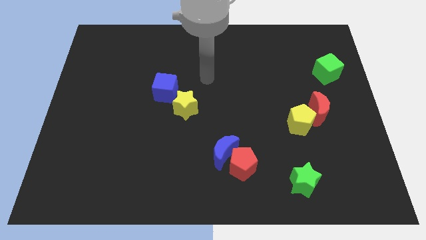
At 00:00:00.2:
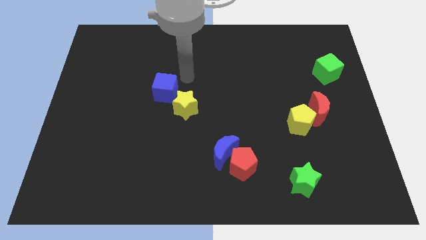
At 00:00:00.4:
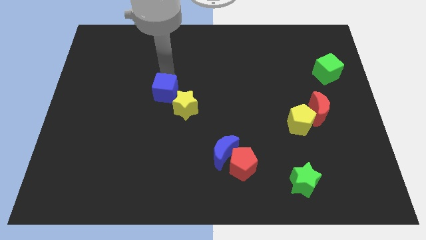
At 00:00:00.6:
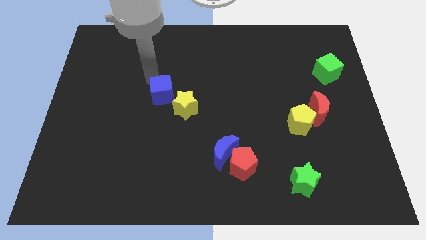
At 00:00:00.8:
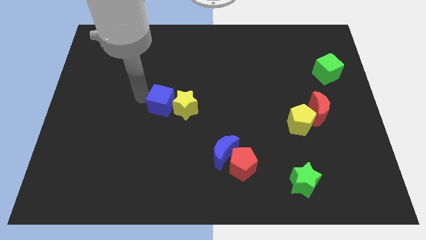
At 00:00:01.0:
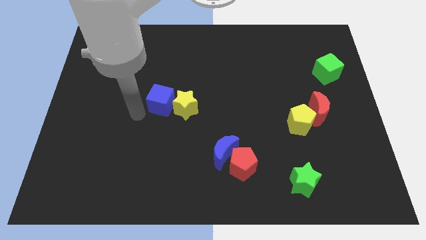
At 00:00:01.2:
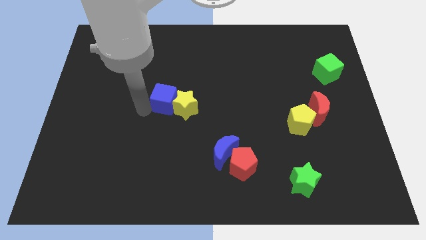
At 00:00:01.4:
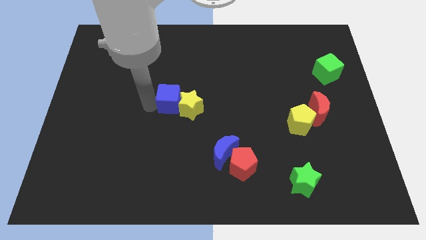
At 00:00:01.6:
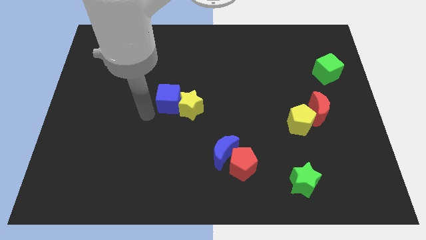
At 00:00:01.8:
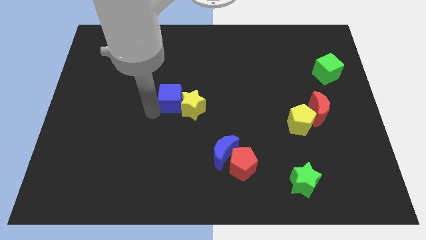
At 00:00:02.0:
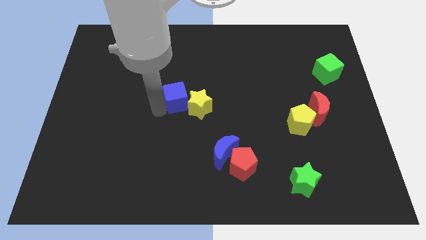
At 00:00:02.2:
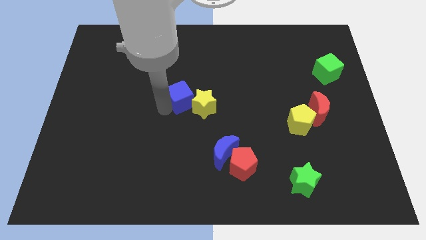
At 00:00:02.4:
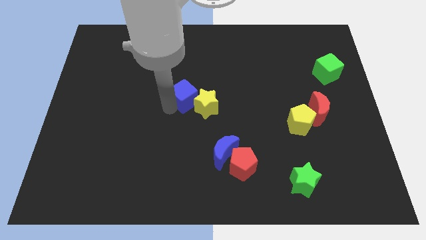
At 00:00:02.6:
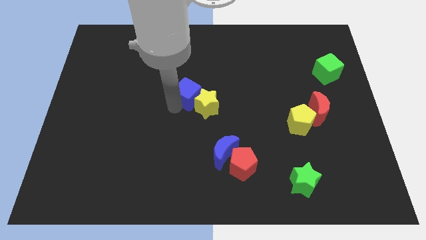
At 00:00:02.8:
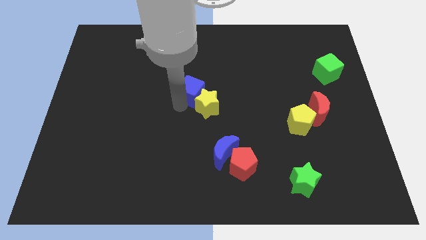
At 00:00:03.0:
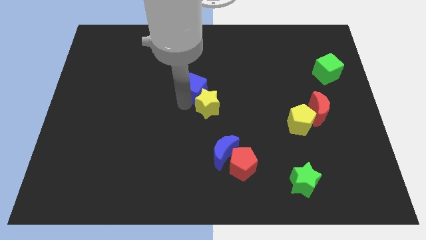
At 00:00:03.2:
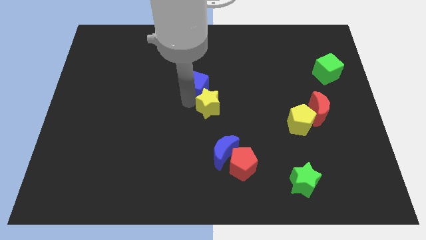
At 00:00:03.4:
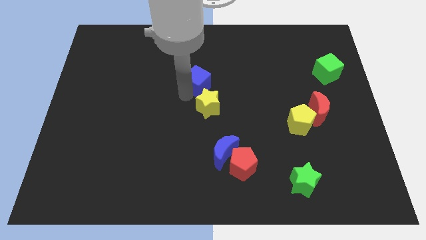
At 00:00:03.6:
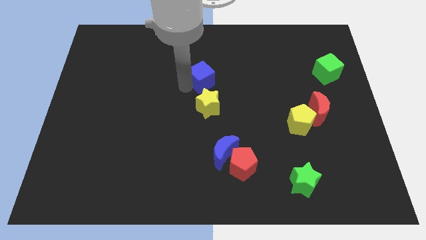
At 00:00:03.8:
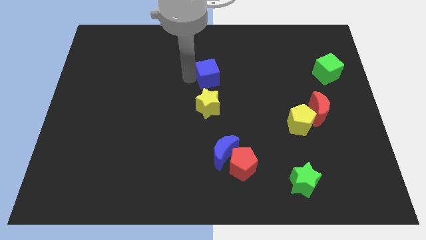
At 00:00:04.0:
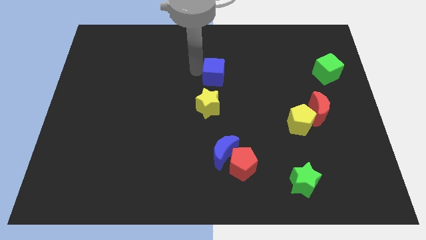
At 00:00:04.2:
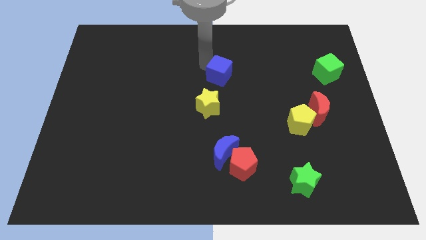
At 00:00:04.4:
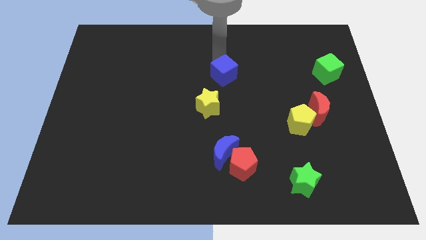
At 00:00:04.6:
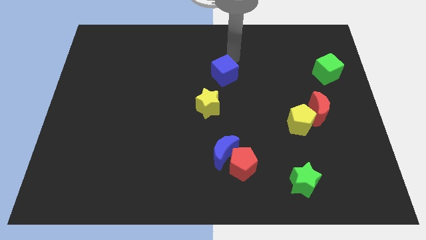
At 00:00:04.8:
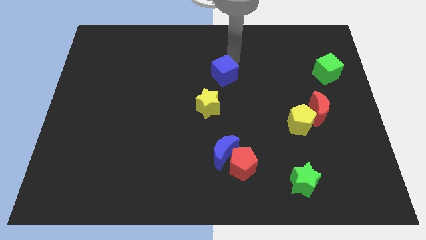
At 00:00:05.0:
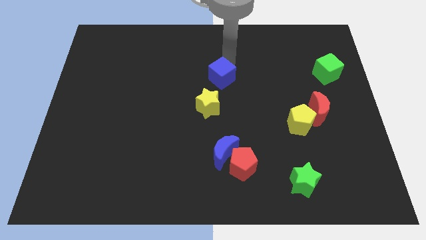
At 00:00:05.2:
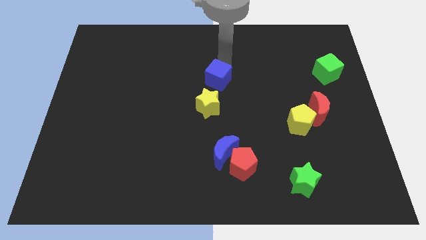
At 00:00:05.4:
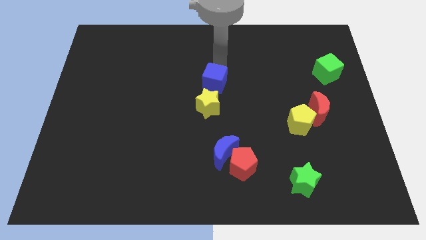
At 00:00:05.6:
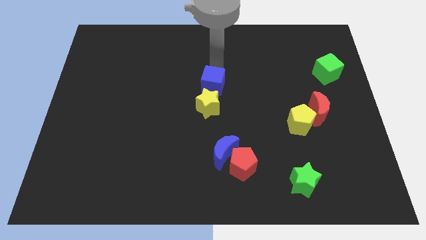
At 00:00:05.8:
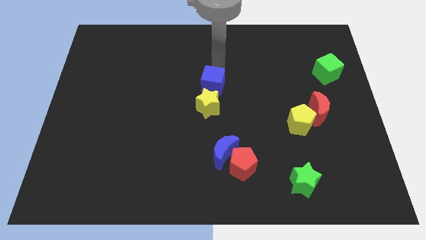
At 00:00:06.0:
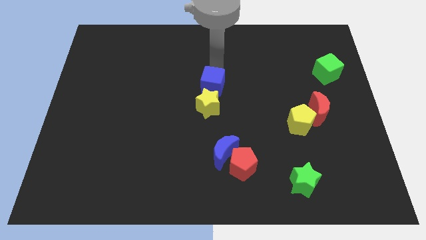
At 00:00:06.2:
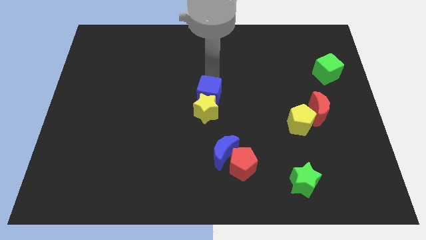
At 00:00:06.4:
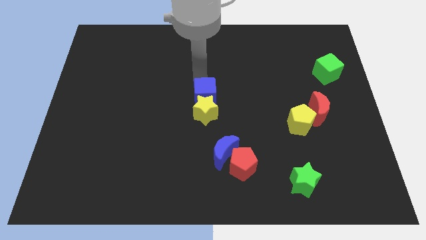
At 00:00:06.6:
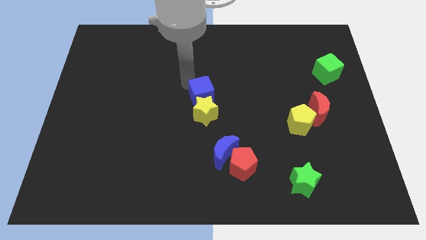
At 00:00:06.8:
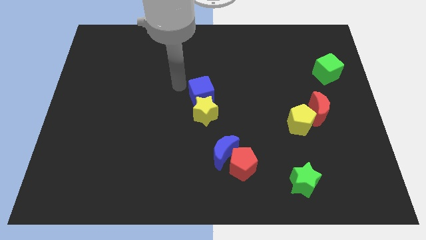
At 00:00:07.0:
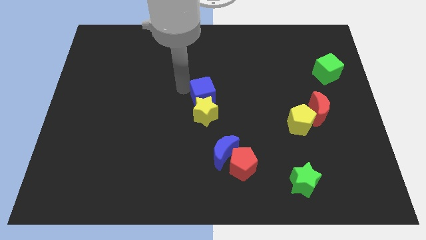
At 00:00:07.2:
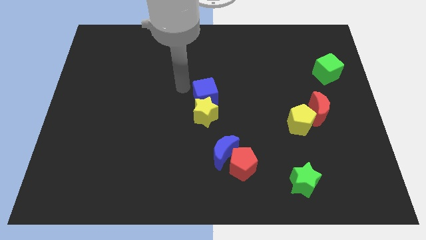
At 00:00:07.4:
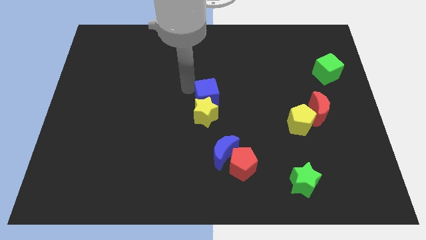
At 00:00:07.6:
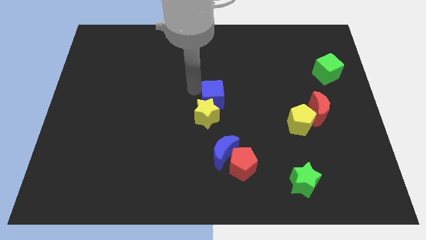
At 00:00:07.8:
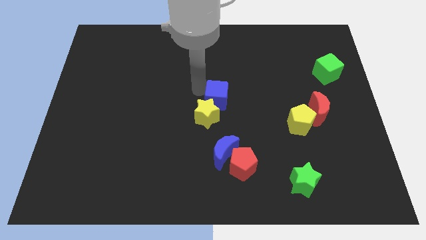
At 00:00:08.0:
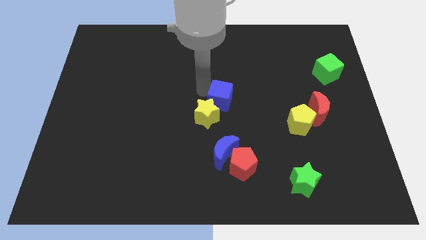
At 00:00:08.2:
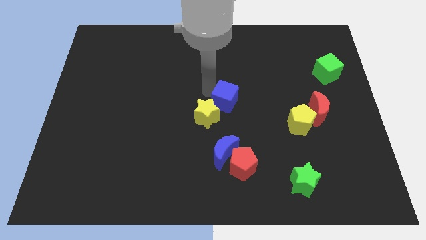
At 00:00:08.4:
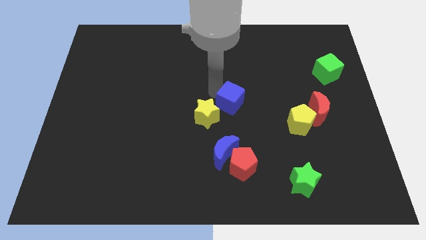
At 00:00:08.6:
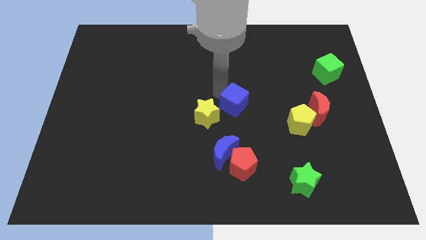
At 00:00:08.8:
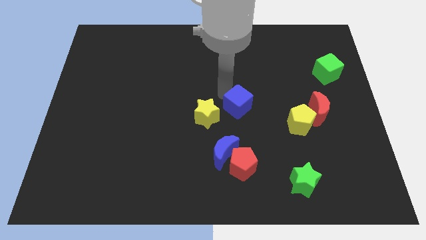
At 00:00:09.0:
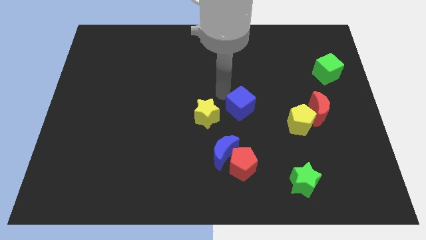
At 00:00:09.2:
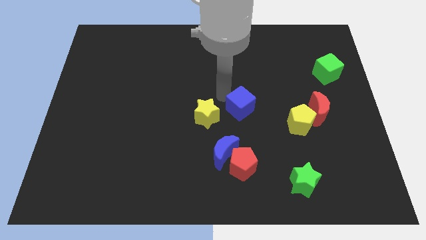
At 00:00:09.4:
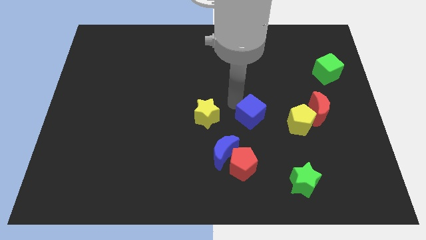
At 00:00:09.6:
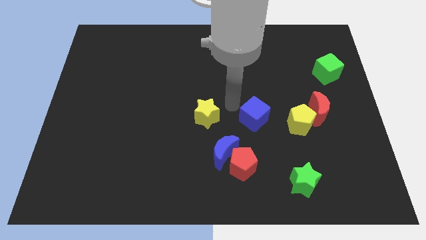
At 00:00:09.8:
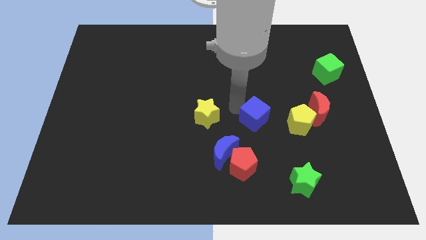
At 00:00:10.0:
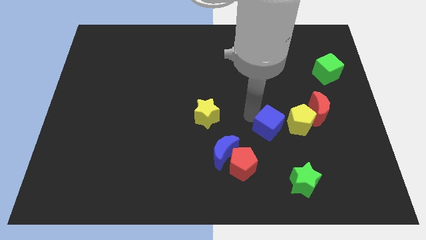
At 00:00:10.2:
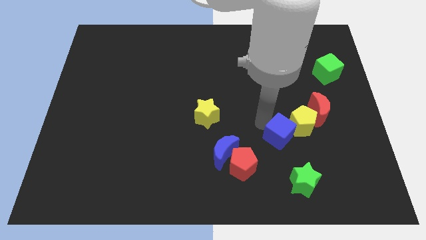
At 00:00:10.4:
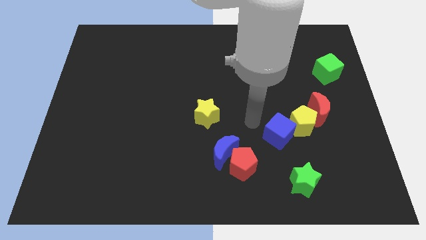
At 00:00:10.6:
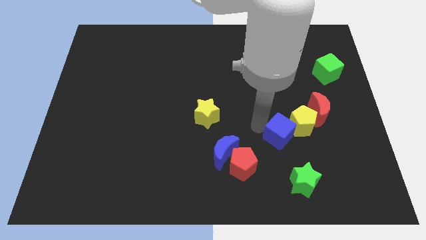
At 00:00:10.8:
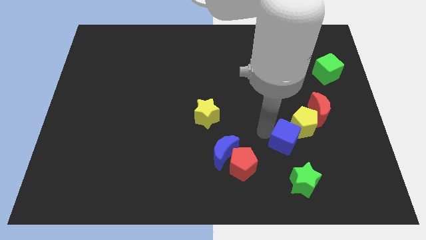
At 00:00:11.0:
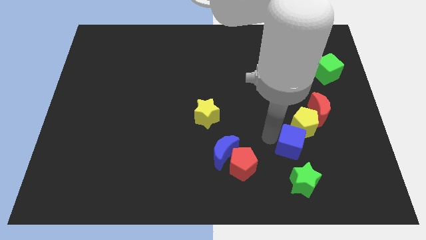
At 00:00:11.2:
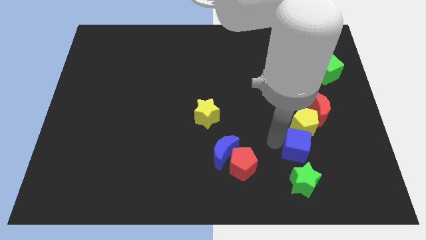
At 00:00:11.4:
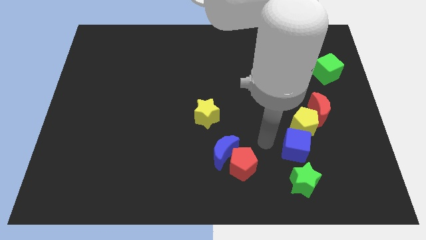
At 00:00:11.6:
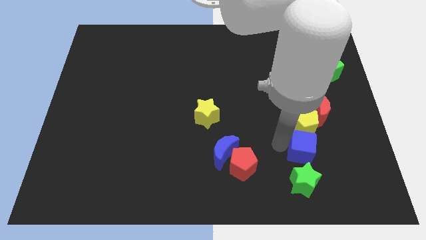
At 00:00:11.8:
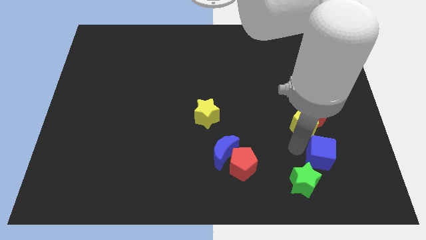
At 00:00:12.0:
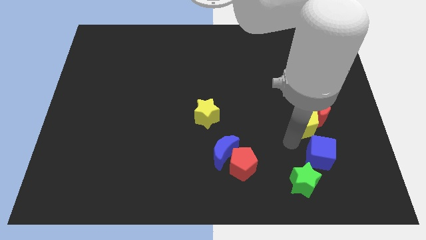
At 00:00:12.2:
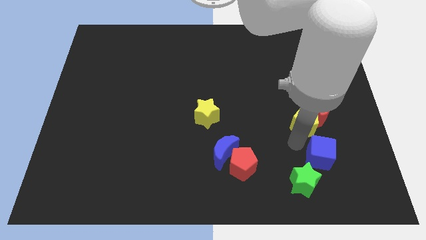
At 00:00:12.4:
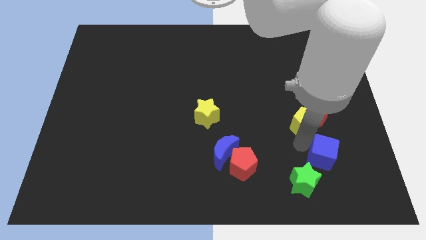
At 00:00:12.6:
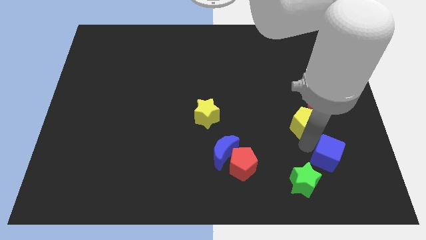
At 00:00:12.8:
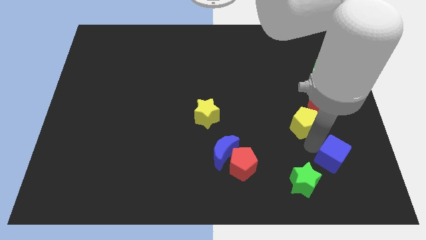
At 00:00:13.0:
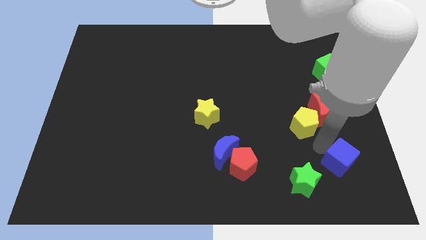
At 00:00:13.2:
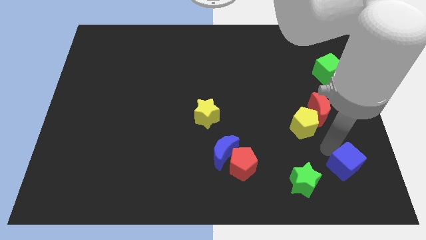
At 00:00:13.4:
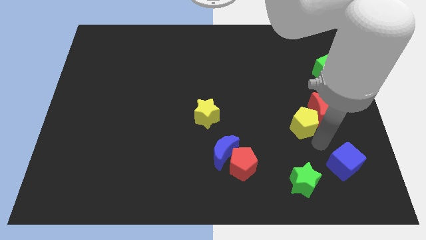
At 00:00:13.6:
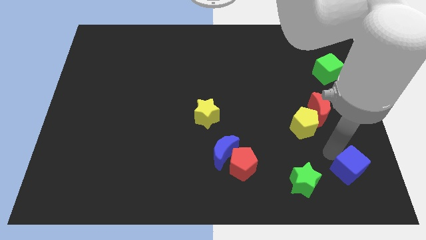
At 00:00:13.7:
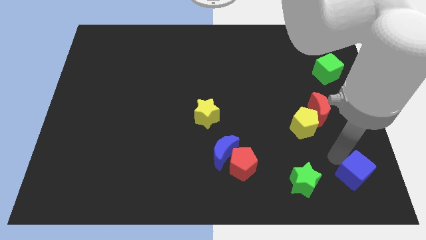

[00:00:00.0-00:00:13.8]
move the blue cube to the bottom right of the board
